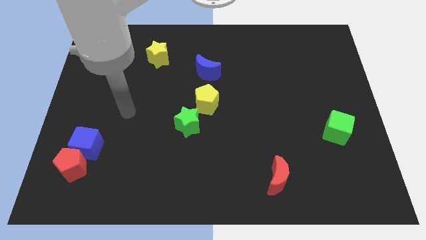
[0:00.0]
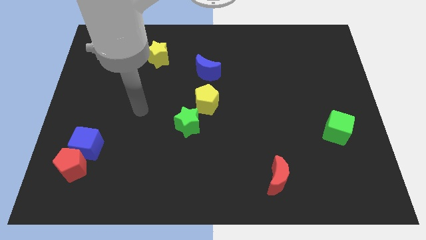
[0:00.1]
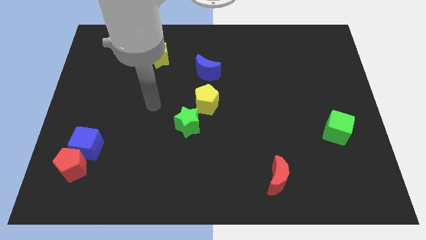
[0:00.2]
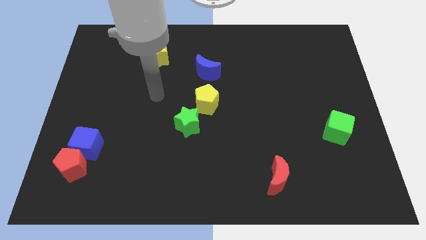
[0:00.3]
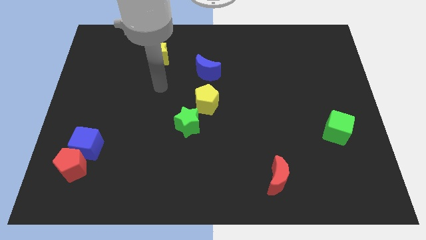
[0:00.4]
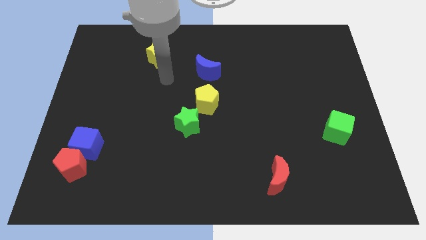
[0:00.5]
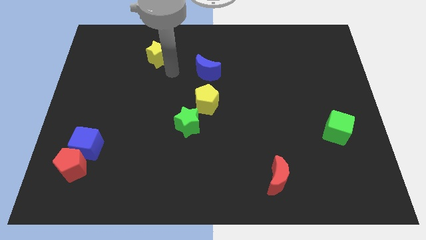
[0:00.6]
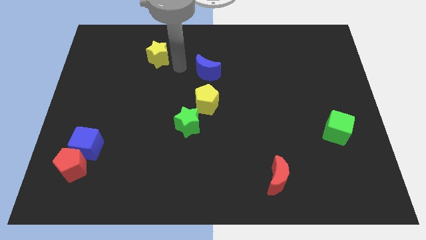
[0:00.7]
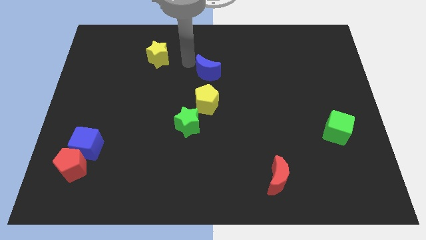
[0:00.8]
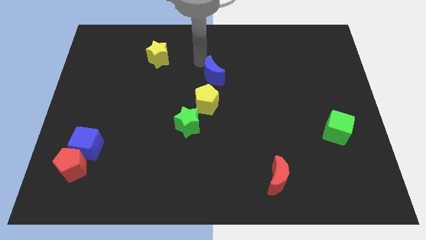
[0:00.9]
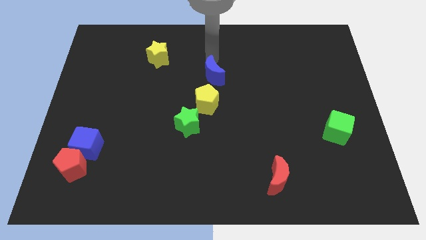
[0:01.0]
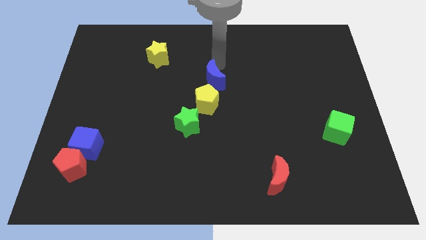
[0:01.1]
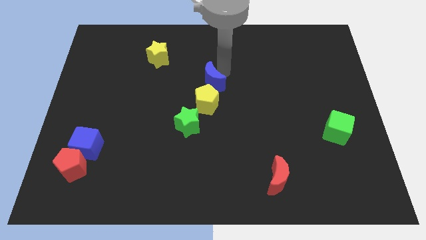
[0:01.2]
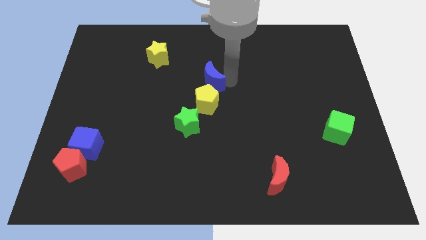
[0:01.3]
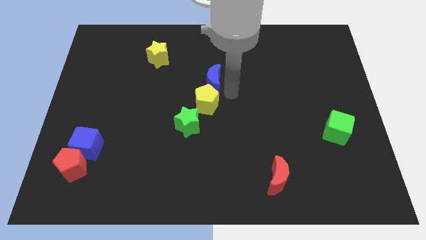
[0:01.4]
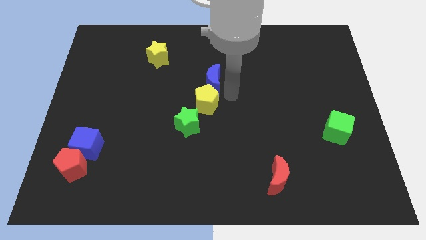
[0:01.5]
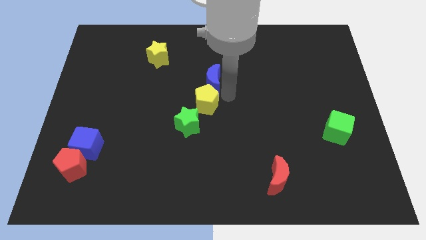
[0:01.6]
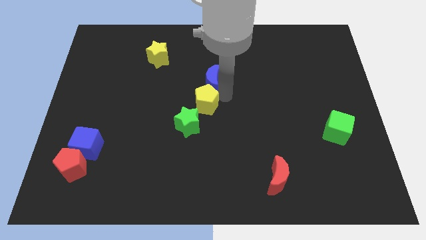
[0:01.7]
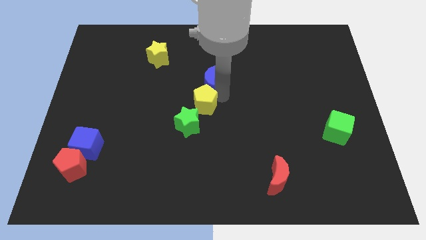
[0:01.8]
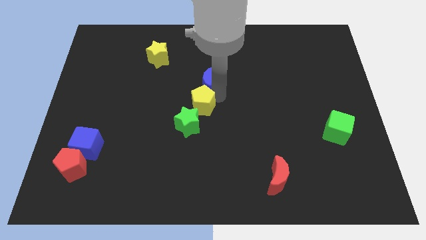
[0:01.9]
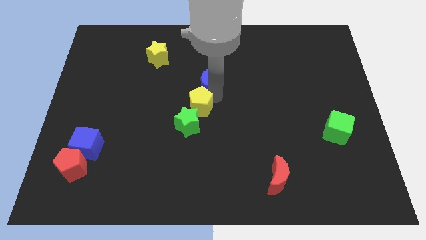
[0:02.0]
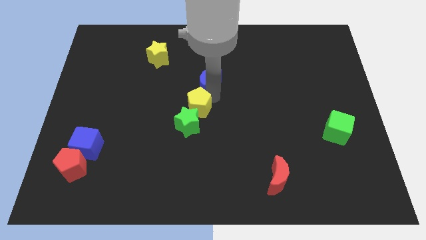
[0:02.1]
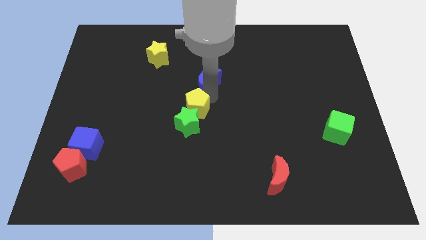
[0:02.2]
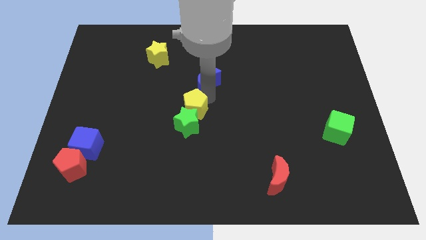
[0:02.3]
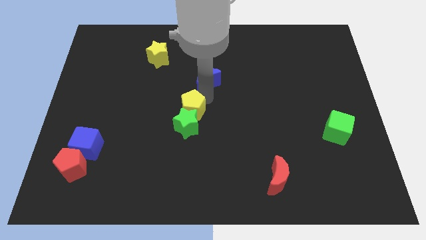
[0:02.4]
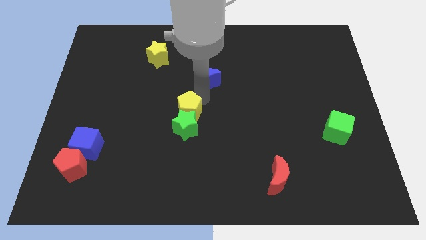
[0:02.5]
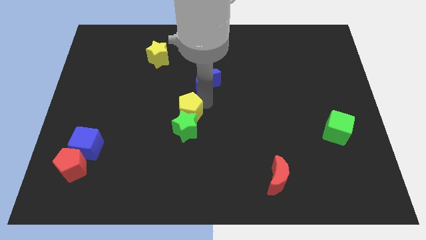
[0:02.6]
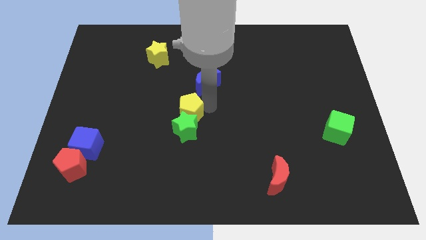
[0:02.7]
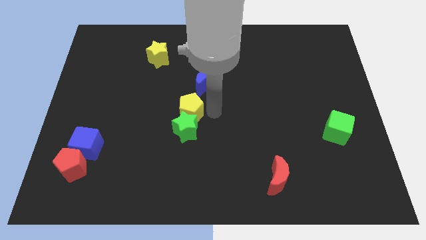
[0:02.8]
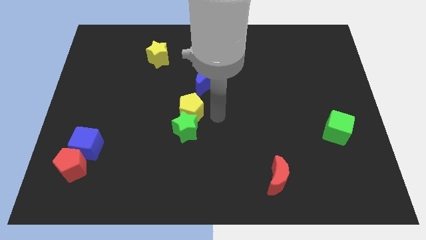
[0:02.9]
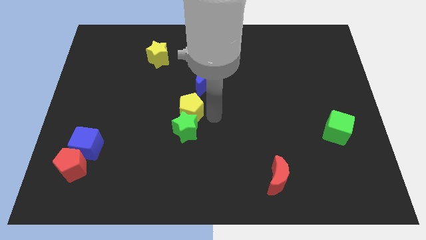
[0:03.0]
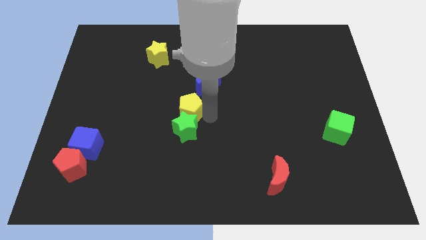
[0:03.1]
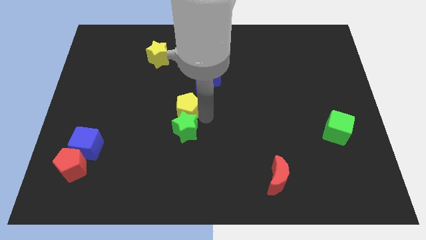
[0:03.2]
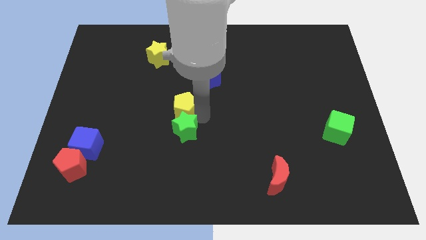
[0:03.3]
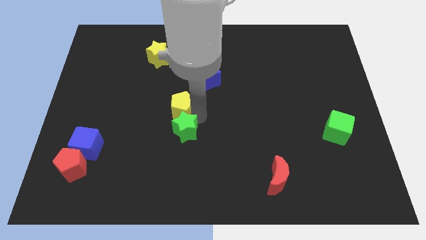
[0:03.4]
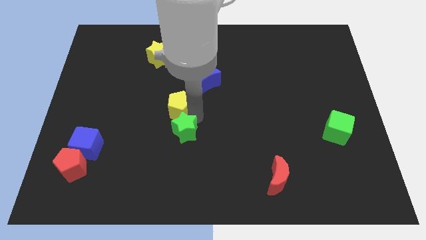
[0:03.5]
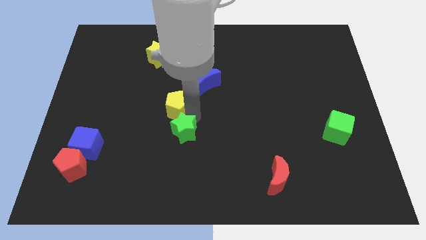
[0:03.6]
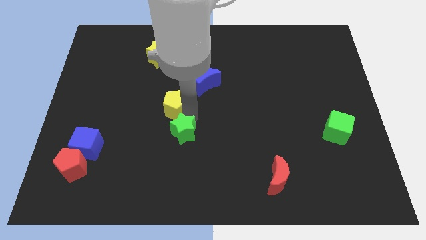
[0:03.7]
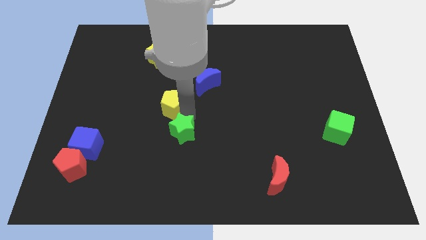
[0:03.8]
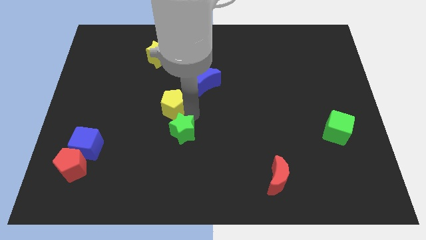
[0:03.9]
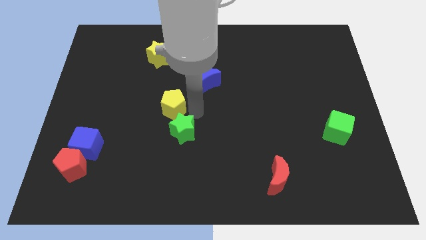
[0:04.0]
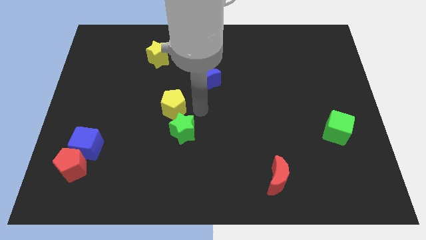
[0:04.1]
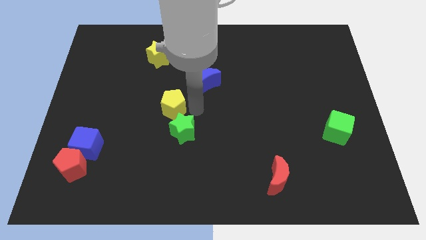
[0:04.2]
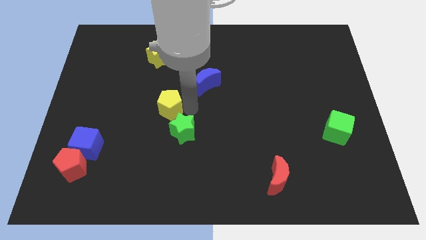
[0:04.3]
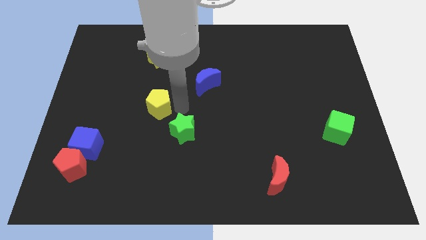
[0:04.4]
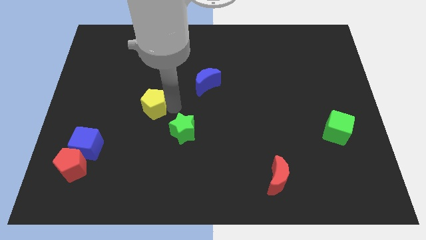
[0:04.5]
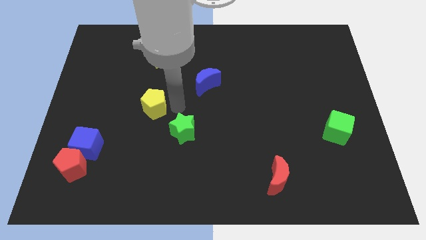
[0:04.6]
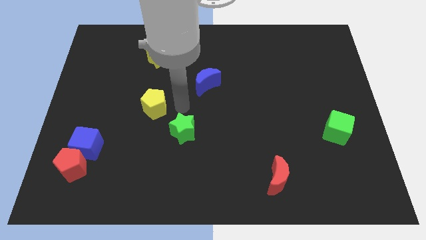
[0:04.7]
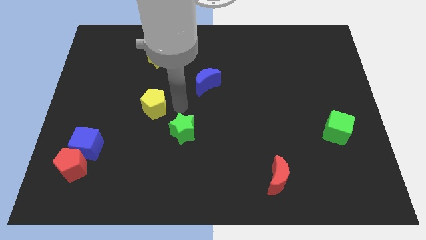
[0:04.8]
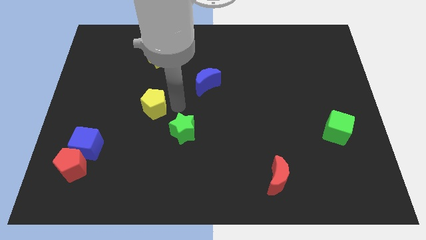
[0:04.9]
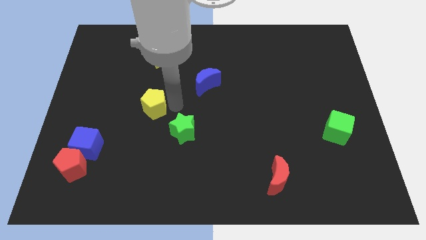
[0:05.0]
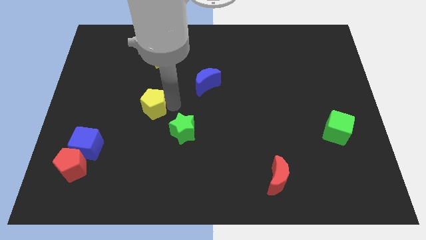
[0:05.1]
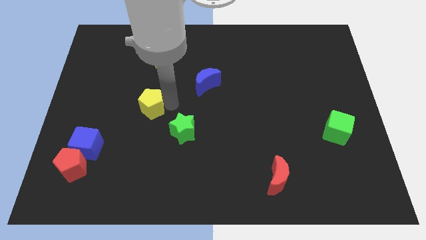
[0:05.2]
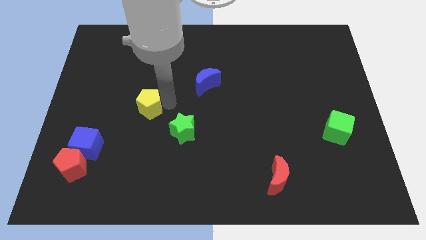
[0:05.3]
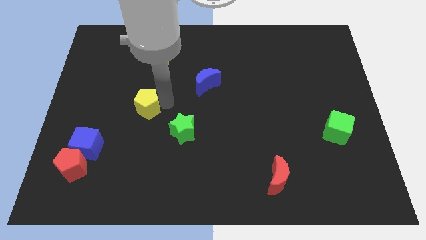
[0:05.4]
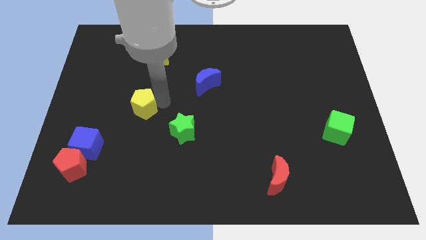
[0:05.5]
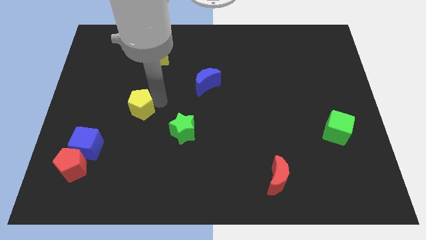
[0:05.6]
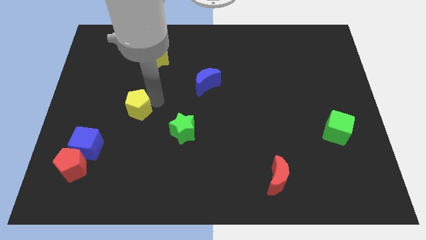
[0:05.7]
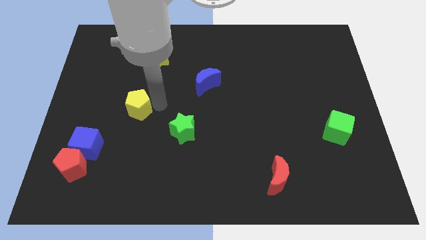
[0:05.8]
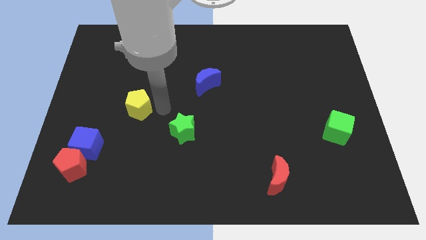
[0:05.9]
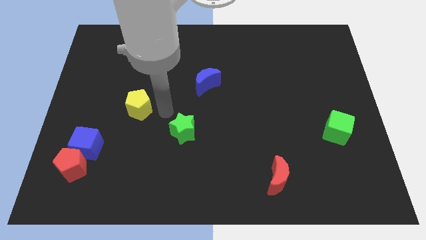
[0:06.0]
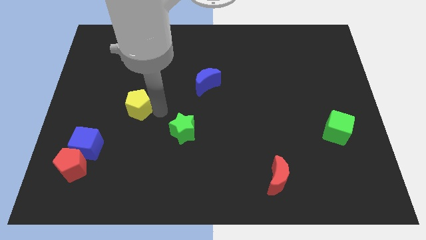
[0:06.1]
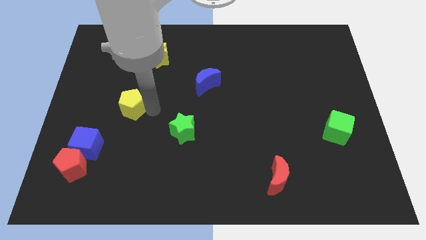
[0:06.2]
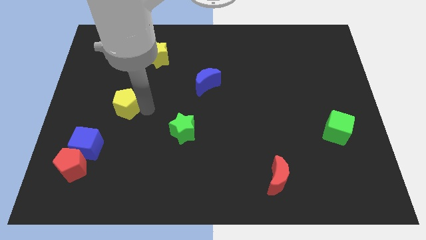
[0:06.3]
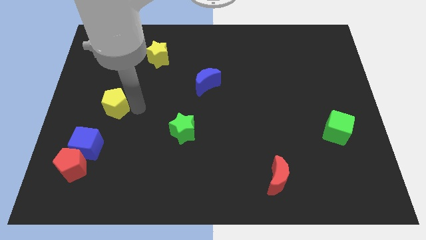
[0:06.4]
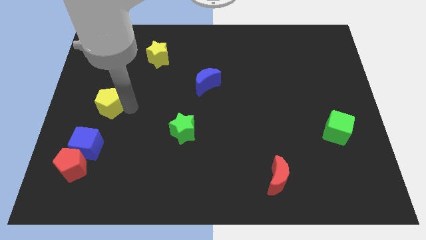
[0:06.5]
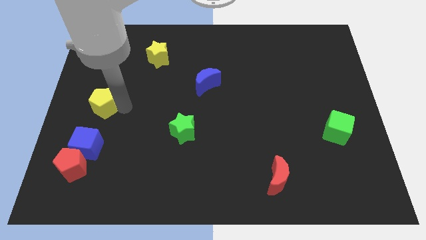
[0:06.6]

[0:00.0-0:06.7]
move the yellow pentagon to the left side

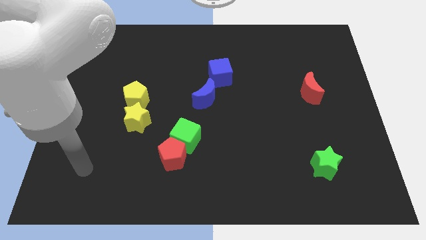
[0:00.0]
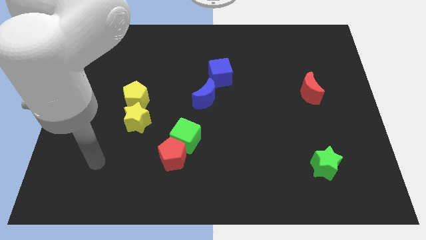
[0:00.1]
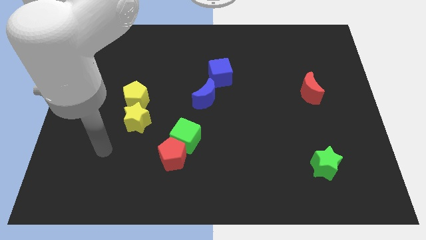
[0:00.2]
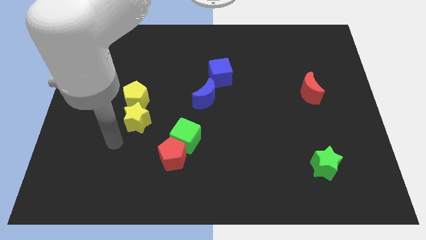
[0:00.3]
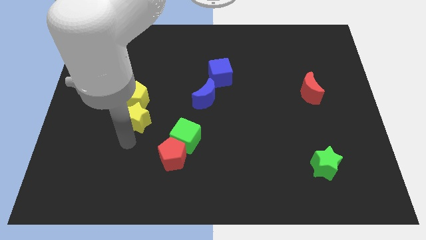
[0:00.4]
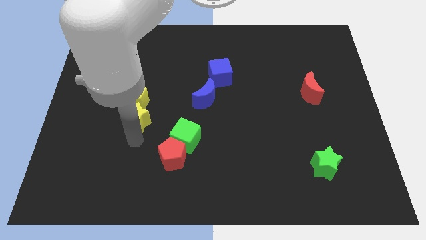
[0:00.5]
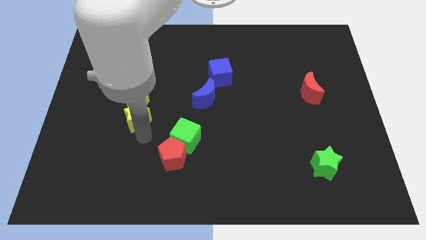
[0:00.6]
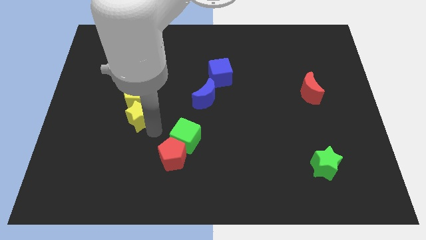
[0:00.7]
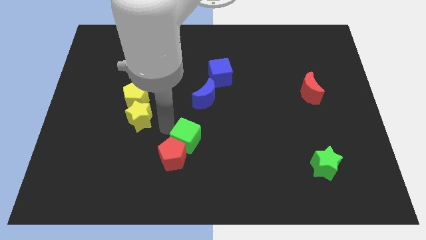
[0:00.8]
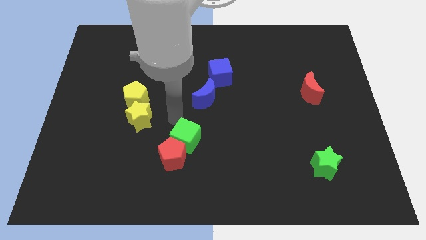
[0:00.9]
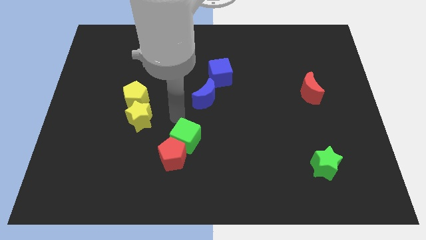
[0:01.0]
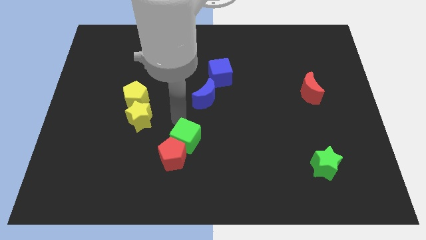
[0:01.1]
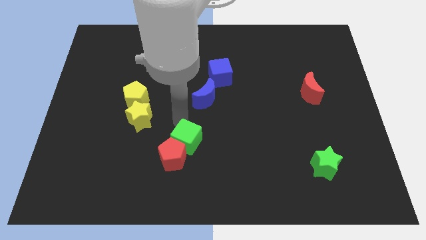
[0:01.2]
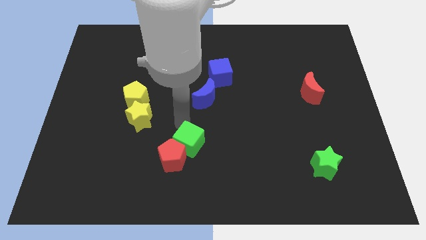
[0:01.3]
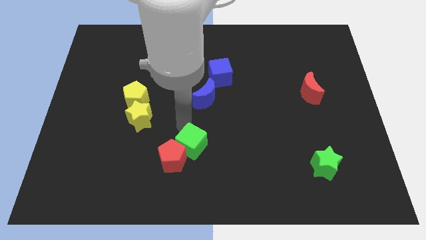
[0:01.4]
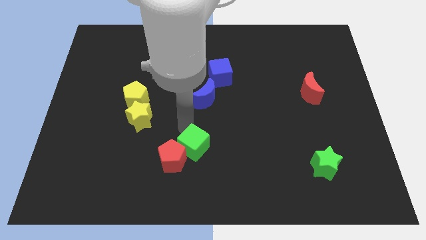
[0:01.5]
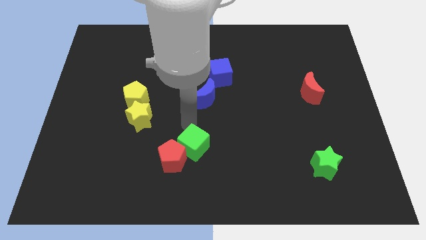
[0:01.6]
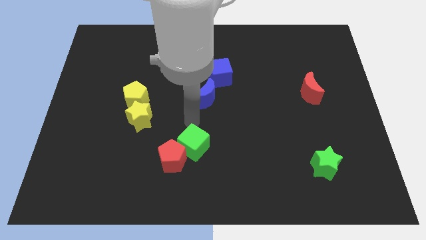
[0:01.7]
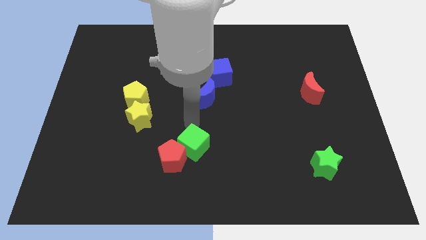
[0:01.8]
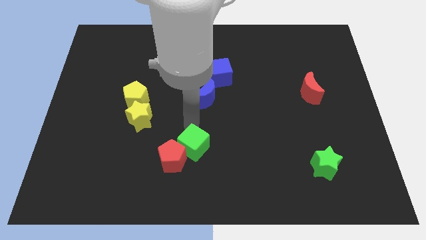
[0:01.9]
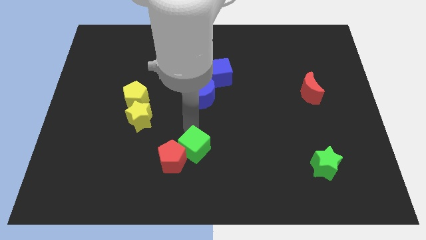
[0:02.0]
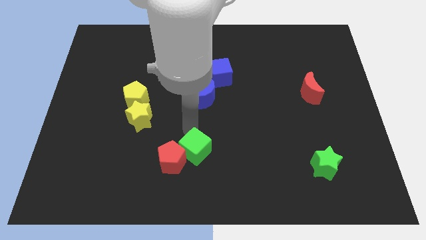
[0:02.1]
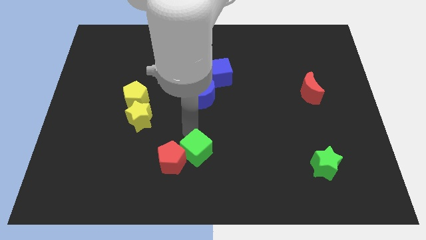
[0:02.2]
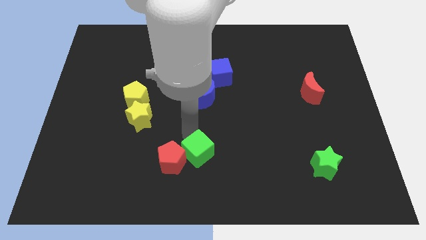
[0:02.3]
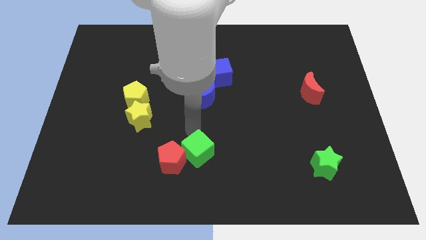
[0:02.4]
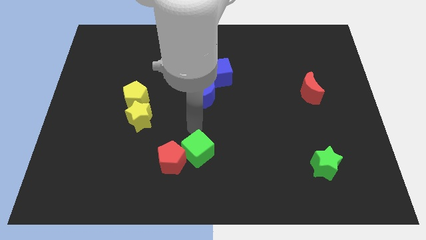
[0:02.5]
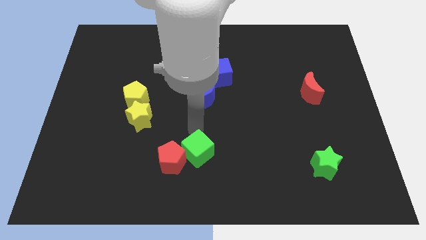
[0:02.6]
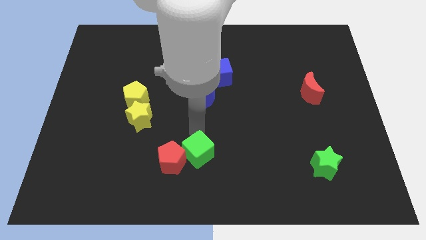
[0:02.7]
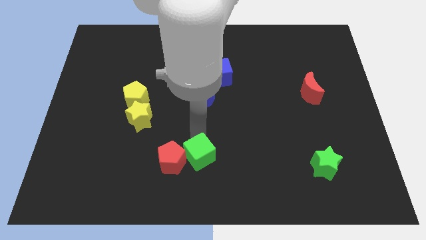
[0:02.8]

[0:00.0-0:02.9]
move the green cube to the bottom side
